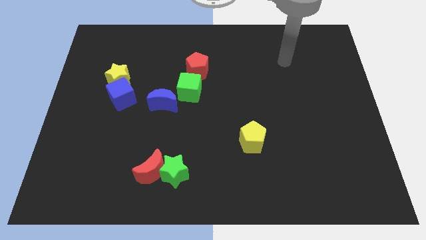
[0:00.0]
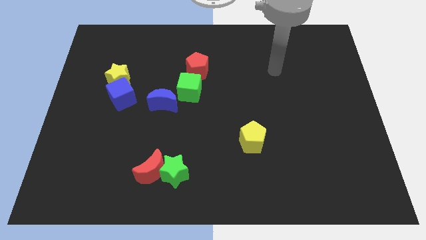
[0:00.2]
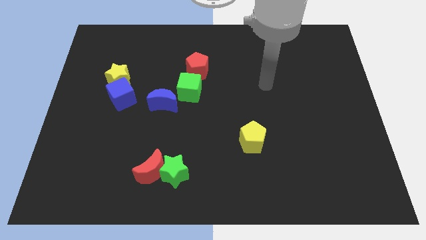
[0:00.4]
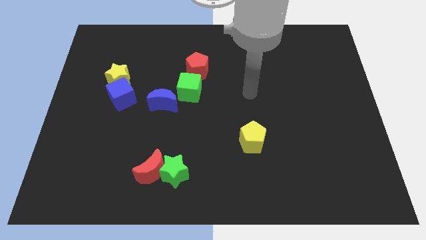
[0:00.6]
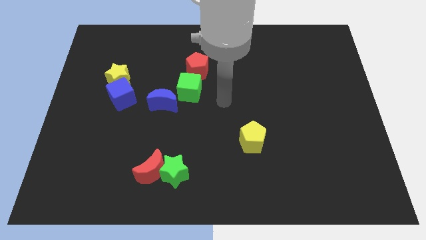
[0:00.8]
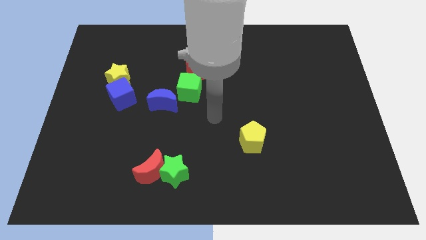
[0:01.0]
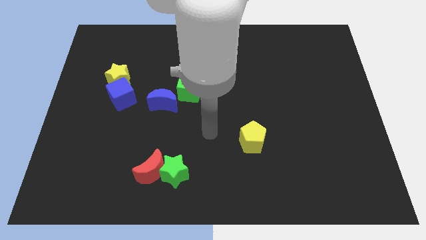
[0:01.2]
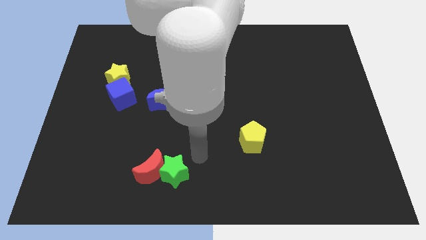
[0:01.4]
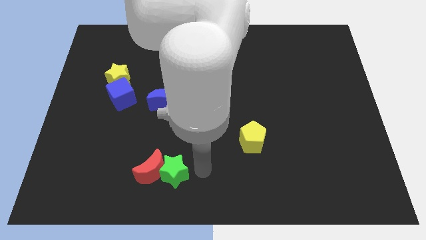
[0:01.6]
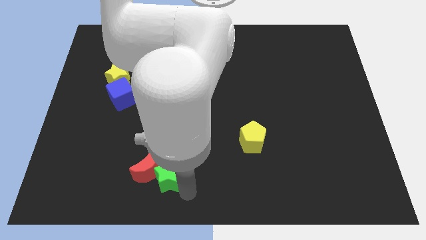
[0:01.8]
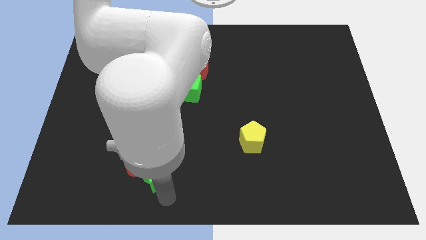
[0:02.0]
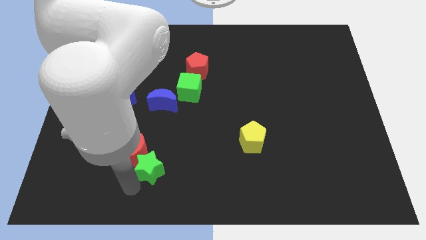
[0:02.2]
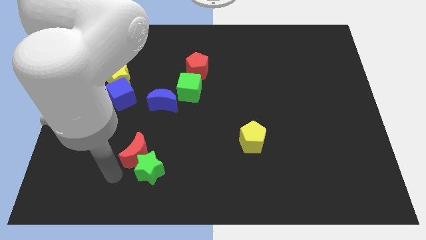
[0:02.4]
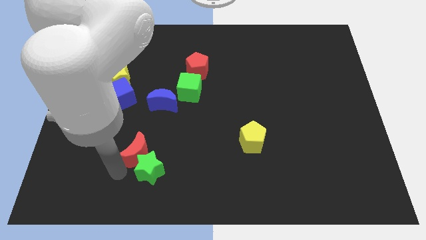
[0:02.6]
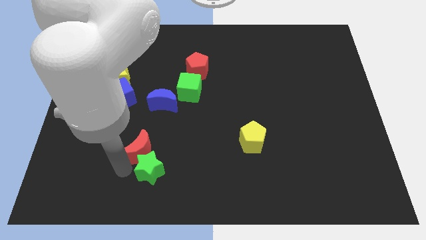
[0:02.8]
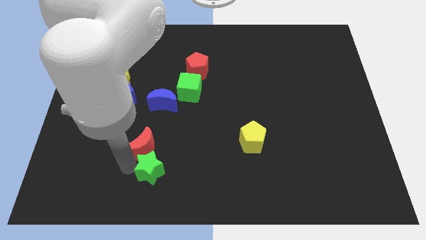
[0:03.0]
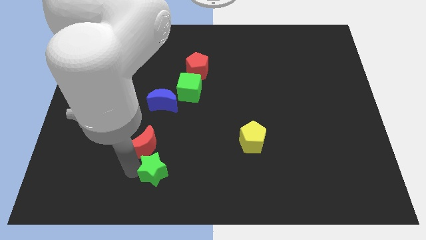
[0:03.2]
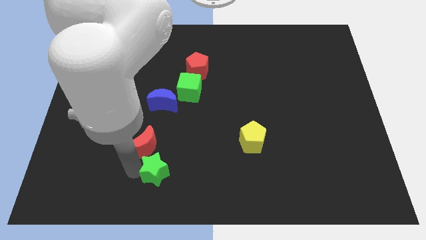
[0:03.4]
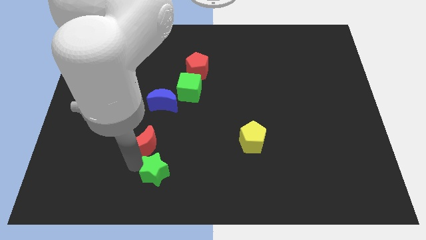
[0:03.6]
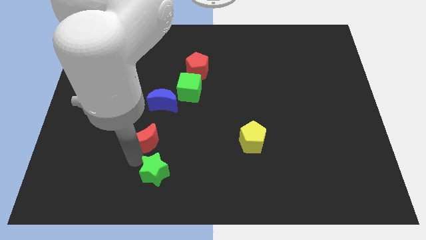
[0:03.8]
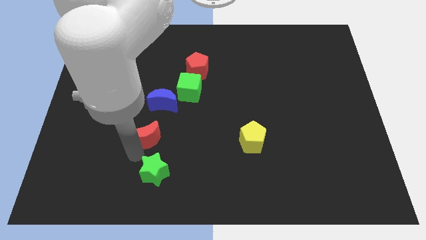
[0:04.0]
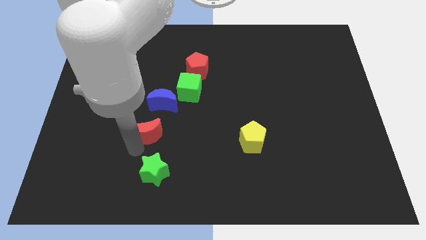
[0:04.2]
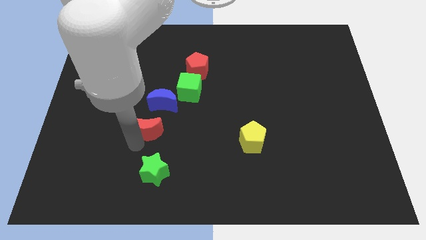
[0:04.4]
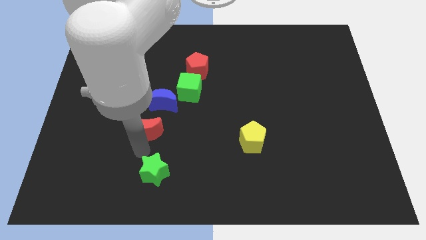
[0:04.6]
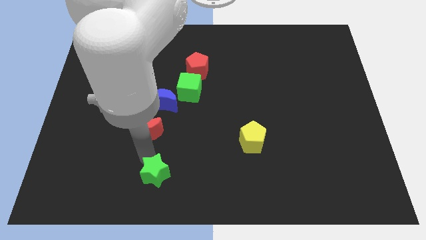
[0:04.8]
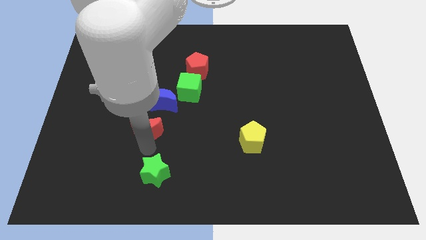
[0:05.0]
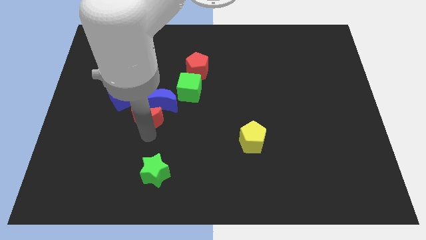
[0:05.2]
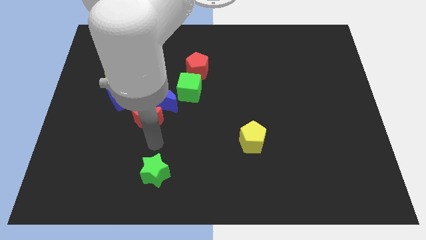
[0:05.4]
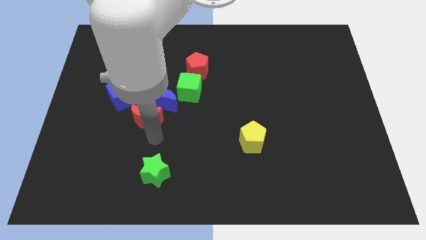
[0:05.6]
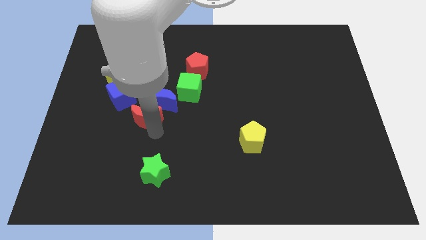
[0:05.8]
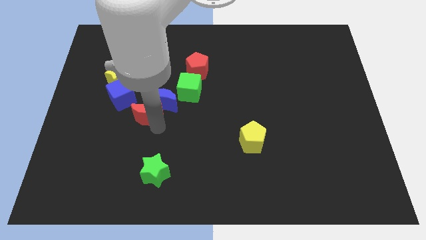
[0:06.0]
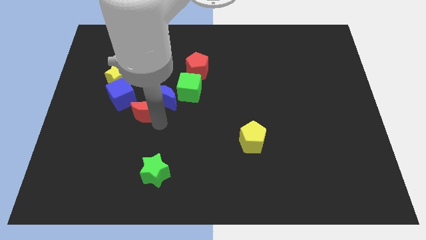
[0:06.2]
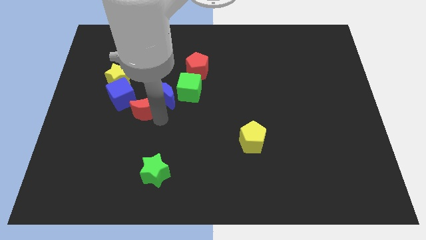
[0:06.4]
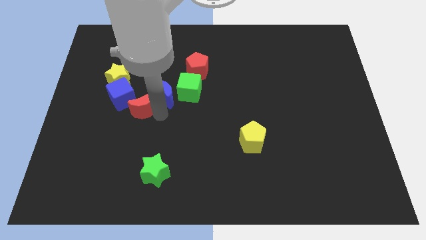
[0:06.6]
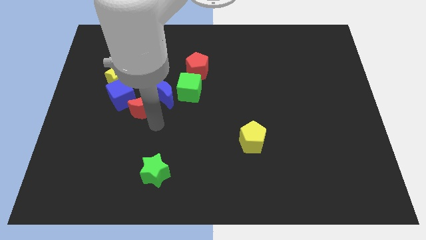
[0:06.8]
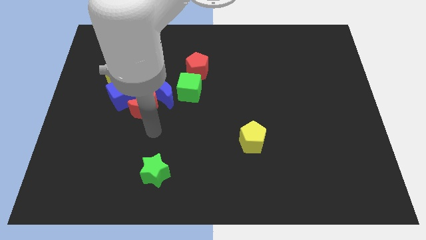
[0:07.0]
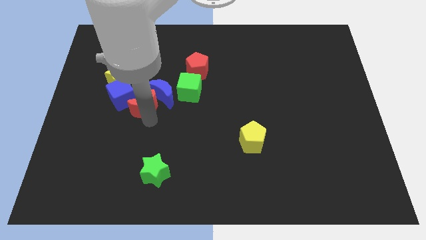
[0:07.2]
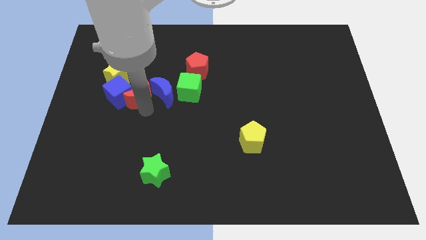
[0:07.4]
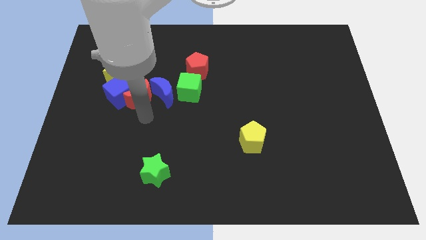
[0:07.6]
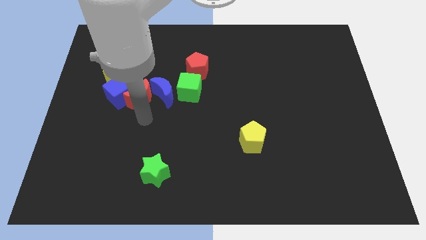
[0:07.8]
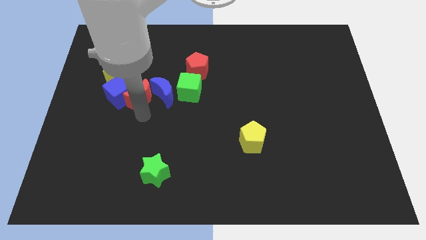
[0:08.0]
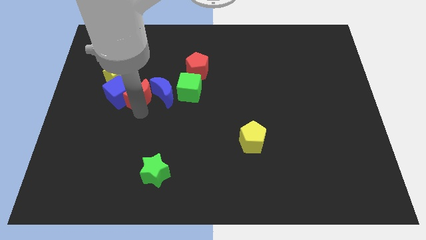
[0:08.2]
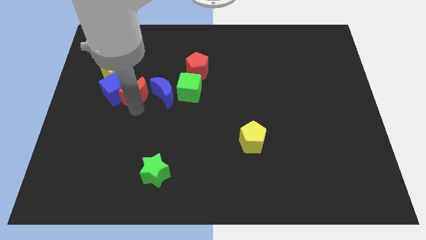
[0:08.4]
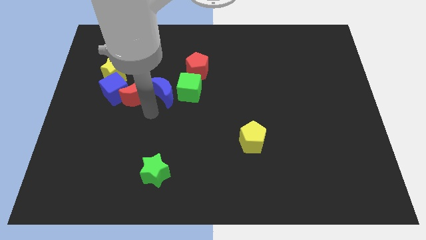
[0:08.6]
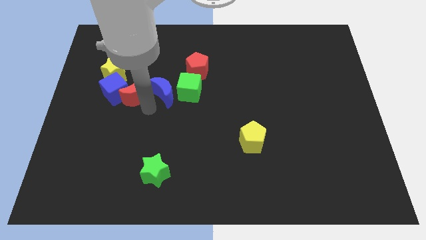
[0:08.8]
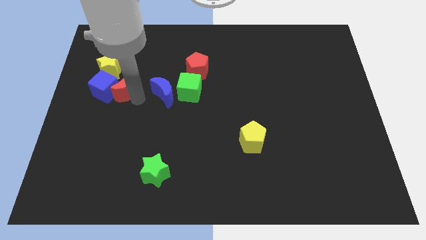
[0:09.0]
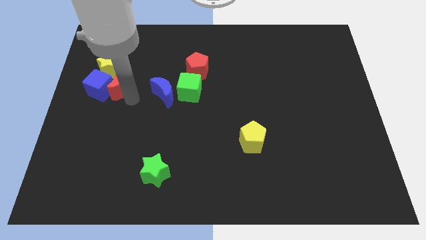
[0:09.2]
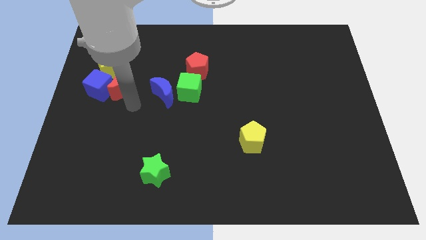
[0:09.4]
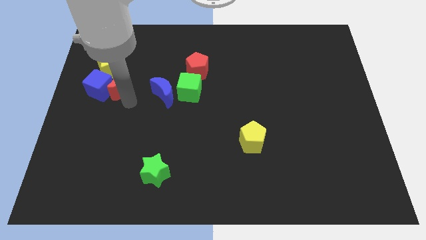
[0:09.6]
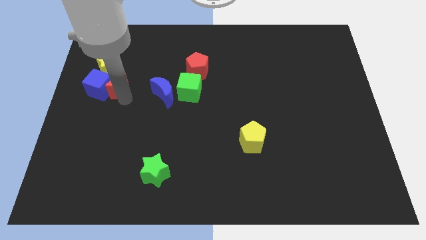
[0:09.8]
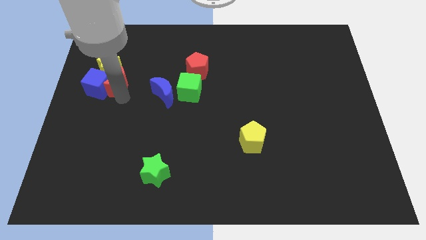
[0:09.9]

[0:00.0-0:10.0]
move the red moon towards the yellow star

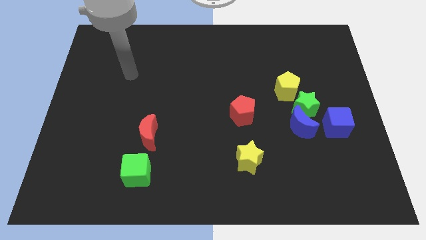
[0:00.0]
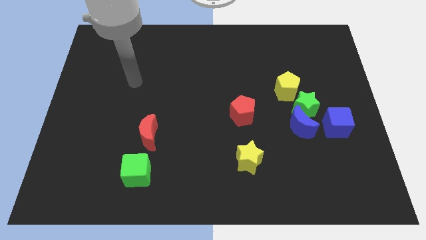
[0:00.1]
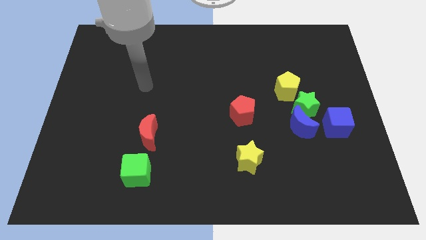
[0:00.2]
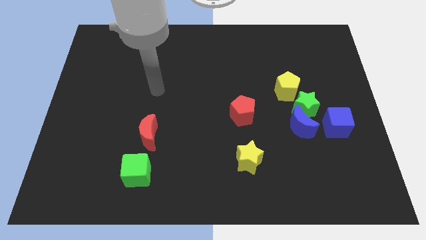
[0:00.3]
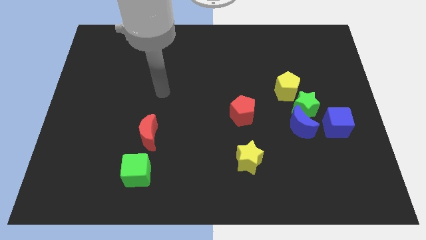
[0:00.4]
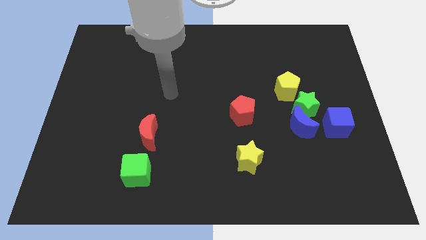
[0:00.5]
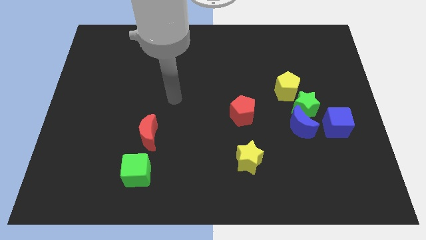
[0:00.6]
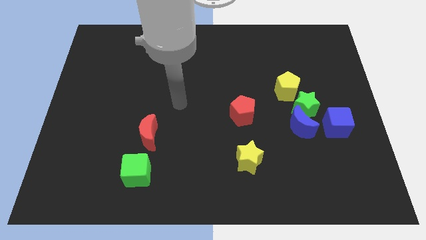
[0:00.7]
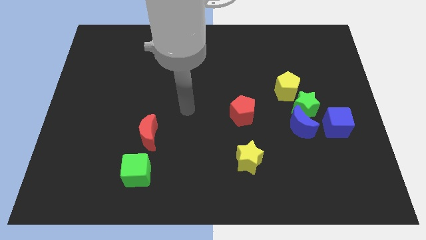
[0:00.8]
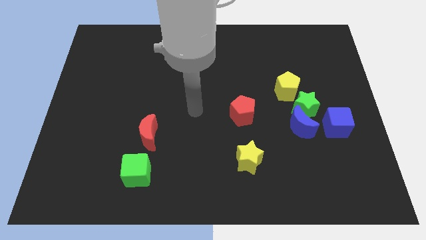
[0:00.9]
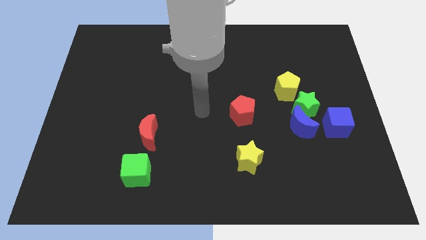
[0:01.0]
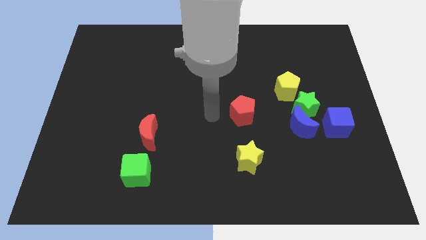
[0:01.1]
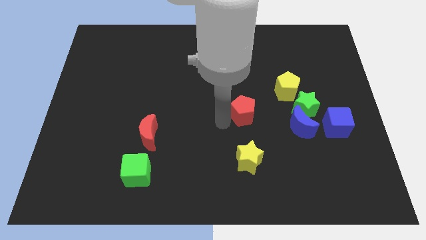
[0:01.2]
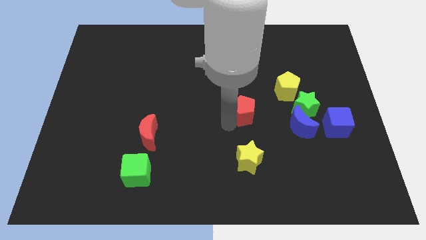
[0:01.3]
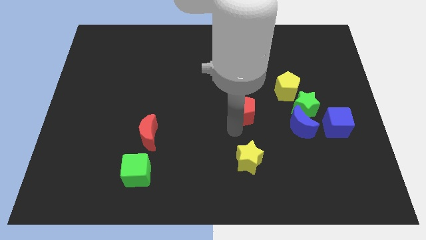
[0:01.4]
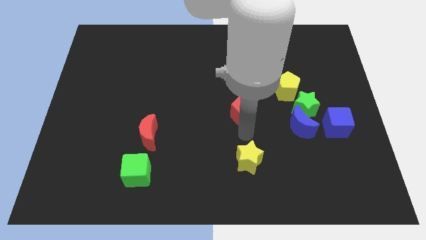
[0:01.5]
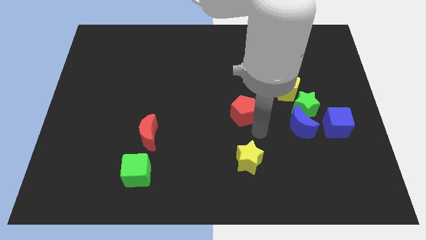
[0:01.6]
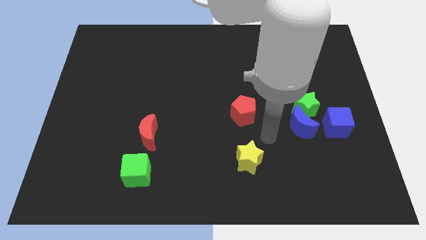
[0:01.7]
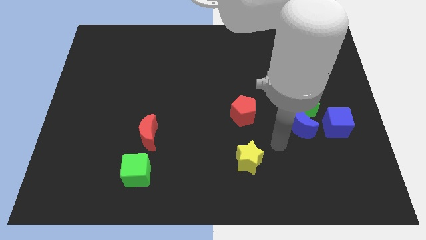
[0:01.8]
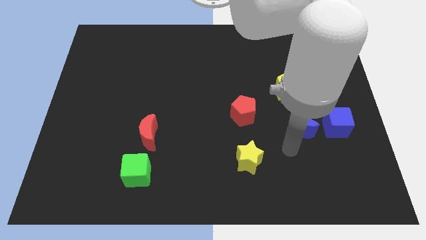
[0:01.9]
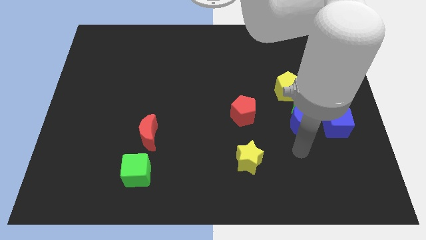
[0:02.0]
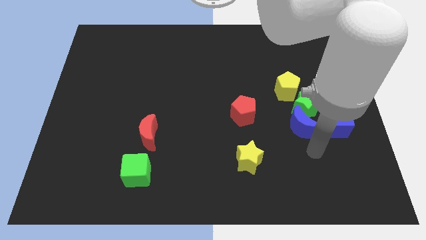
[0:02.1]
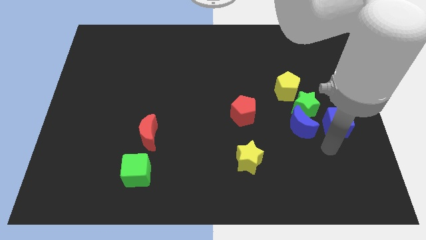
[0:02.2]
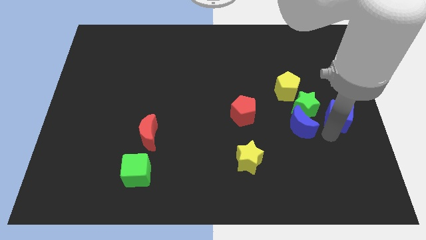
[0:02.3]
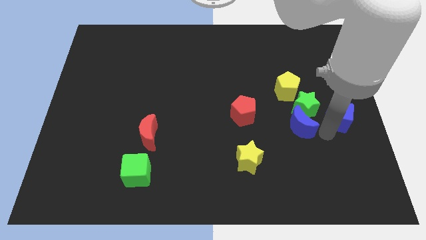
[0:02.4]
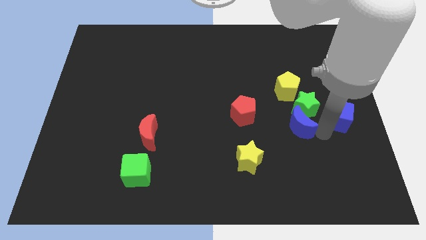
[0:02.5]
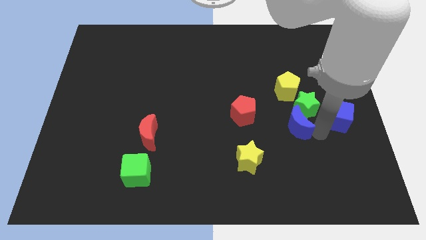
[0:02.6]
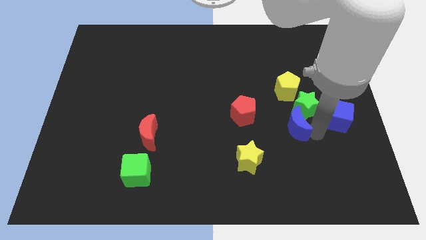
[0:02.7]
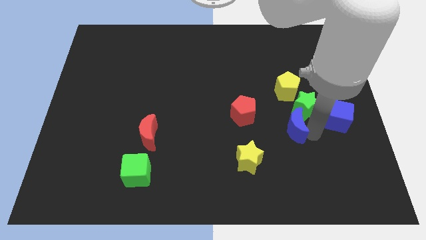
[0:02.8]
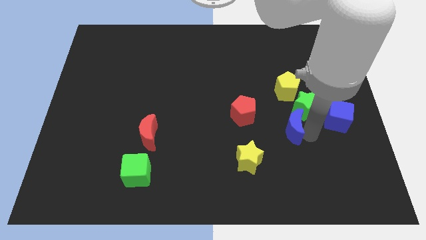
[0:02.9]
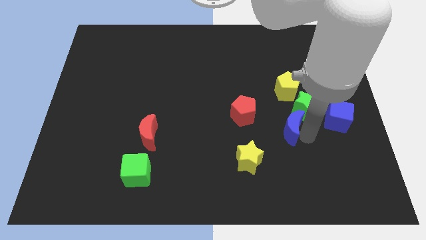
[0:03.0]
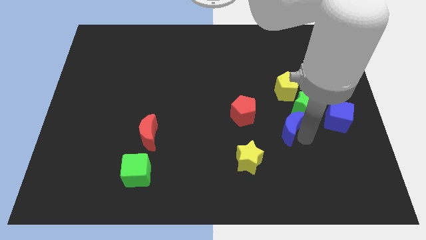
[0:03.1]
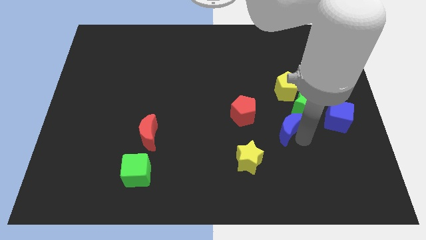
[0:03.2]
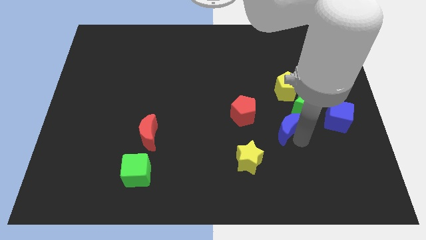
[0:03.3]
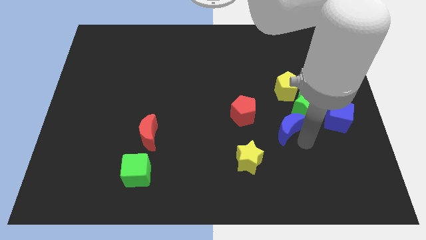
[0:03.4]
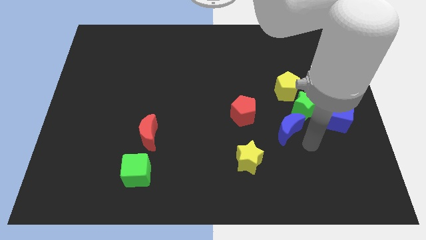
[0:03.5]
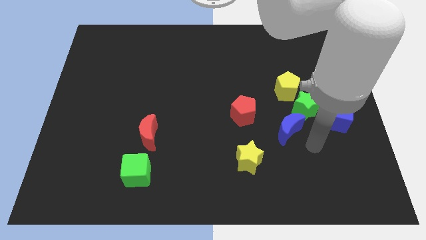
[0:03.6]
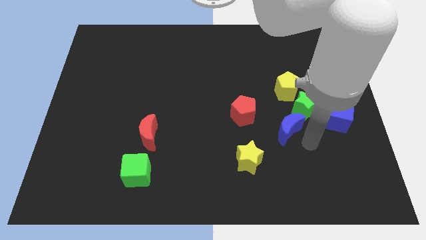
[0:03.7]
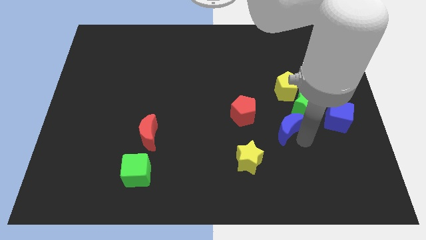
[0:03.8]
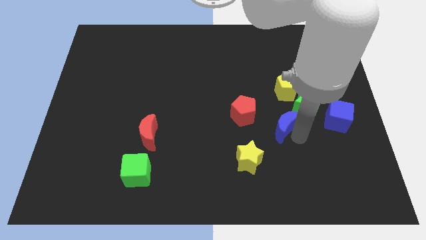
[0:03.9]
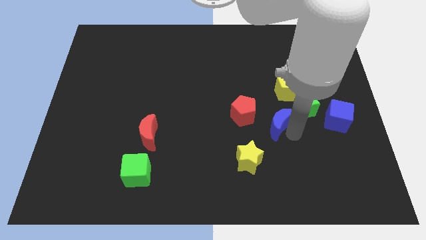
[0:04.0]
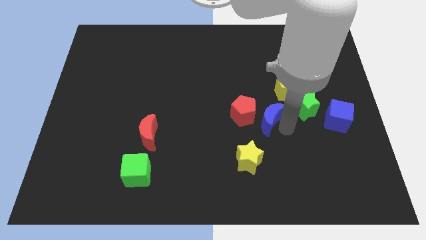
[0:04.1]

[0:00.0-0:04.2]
move the blue moon next to the red pentagon
